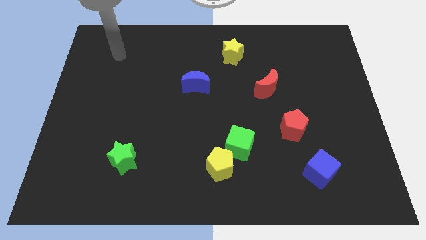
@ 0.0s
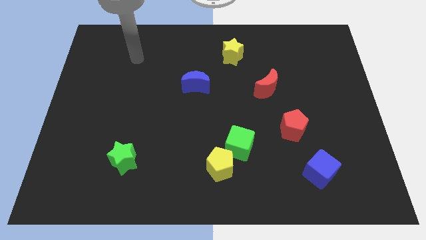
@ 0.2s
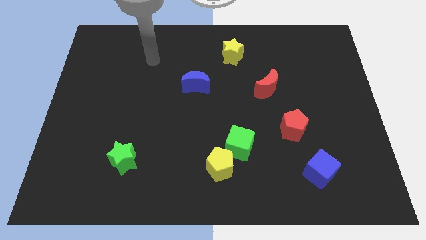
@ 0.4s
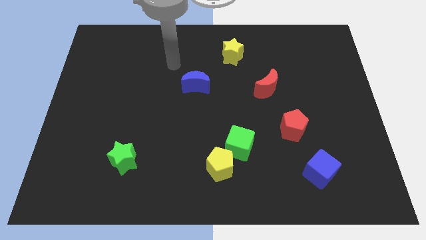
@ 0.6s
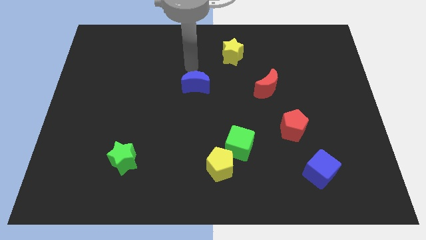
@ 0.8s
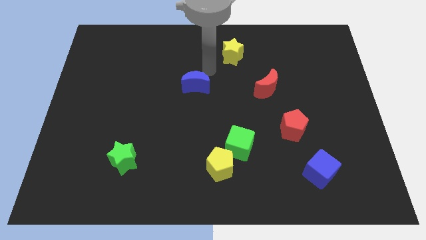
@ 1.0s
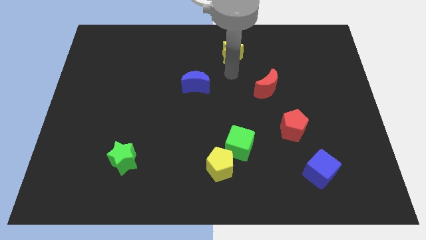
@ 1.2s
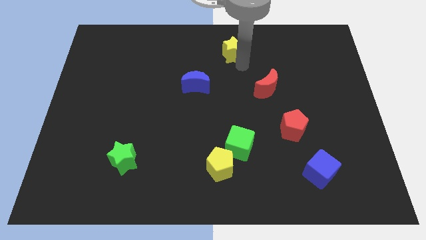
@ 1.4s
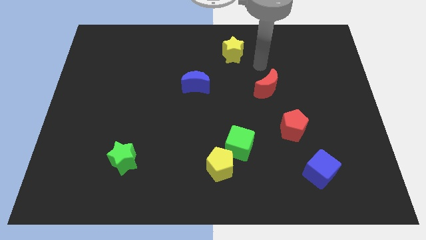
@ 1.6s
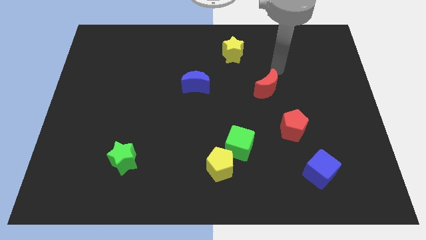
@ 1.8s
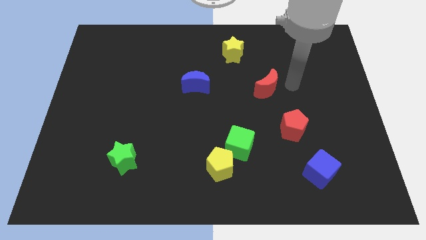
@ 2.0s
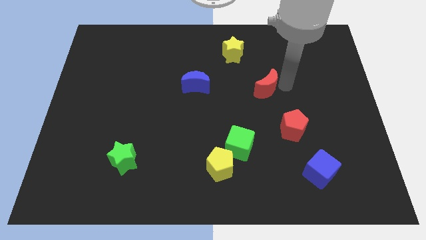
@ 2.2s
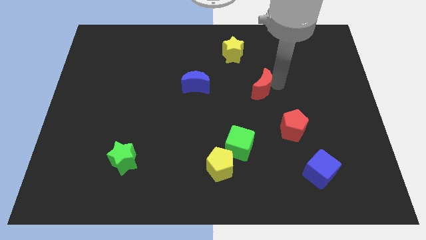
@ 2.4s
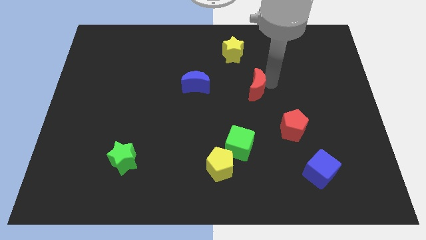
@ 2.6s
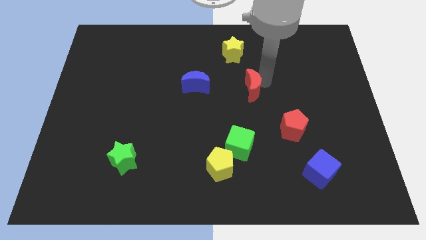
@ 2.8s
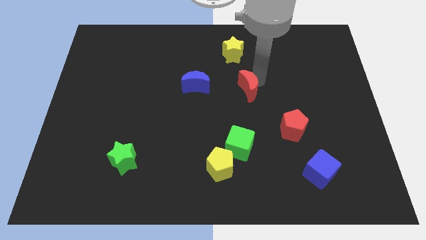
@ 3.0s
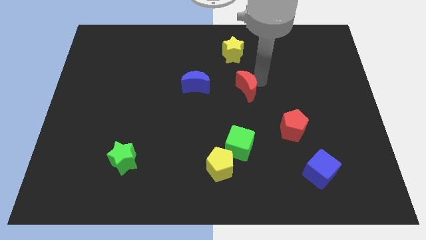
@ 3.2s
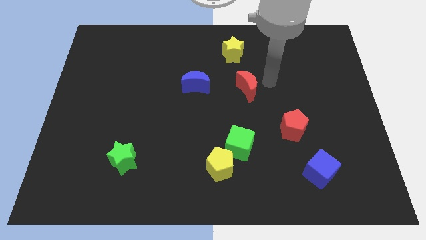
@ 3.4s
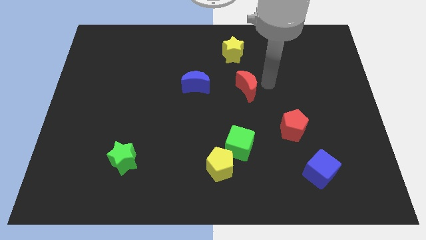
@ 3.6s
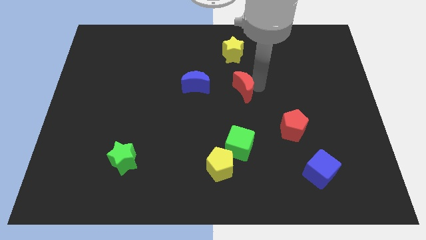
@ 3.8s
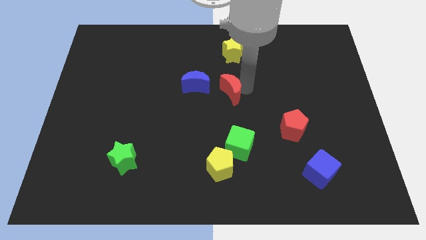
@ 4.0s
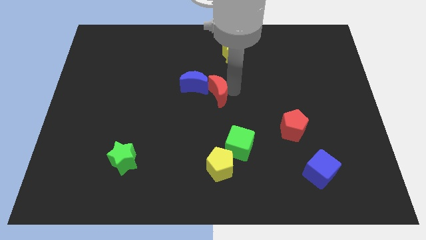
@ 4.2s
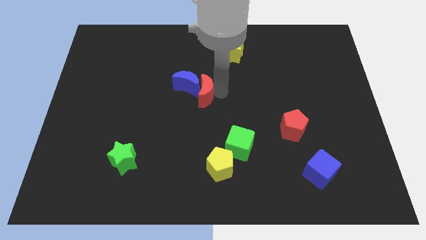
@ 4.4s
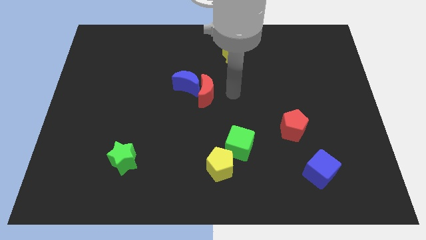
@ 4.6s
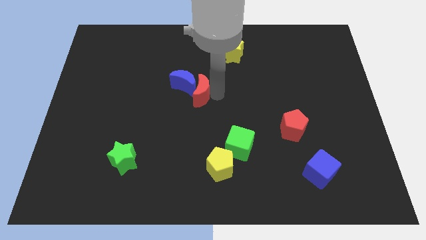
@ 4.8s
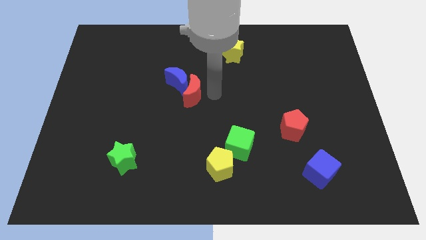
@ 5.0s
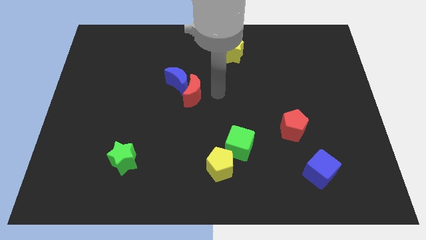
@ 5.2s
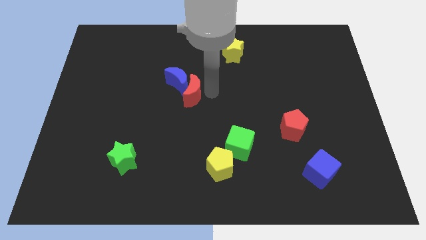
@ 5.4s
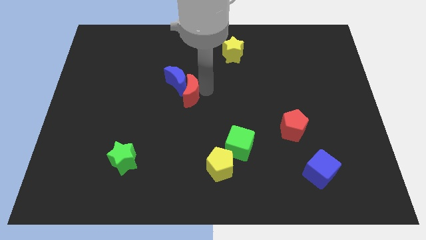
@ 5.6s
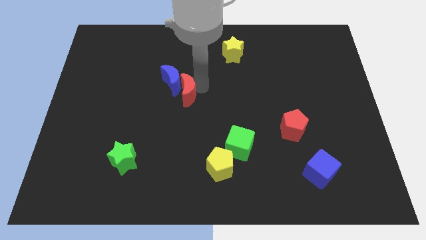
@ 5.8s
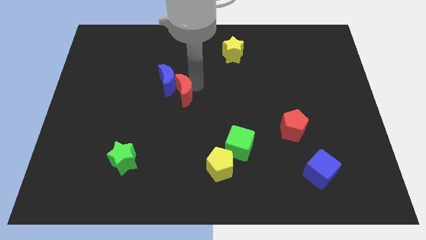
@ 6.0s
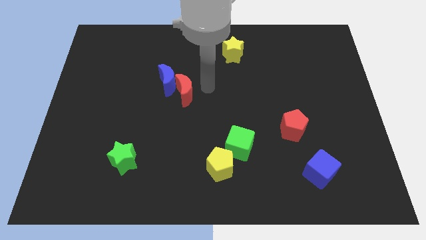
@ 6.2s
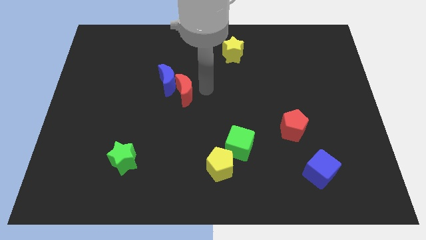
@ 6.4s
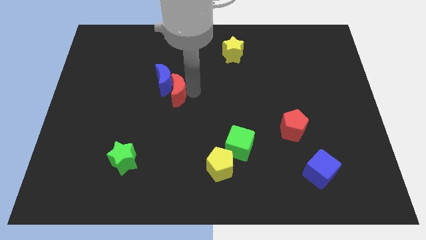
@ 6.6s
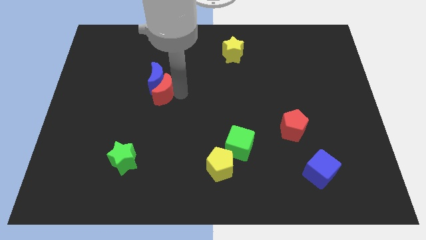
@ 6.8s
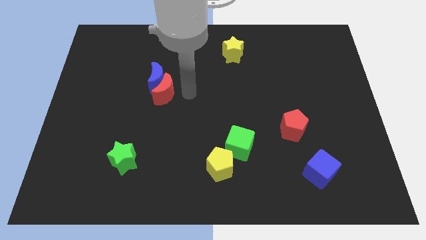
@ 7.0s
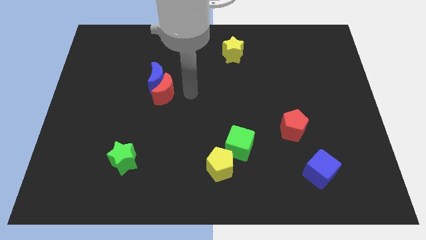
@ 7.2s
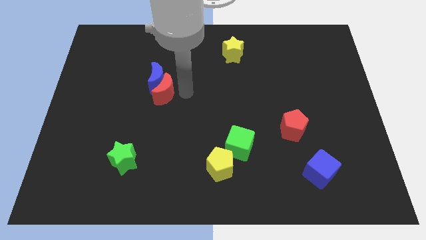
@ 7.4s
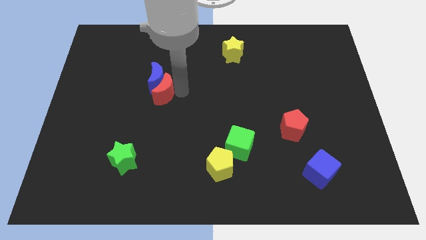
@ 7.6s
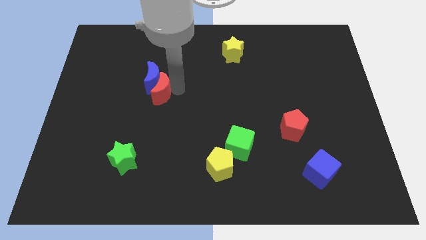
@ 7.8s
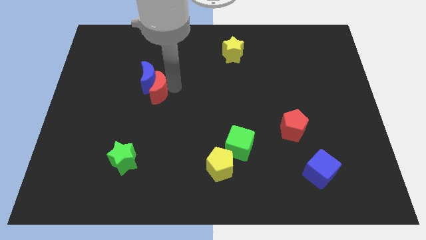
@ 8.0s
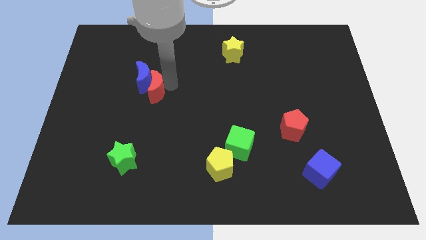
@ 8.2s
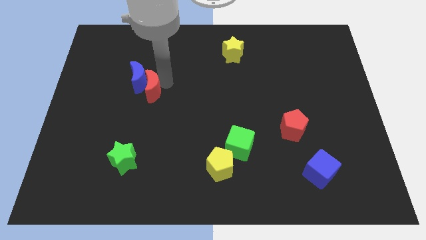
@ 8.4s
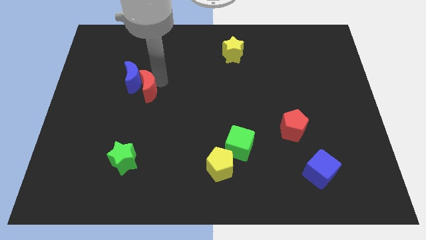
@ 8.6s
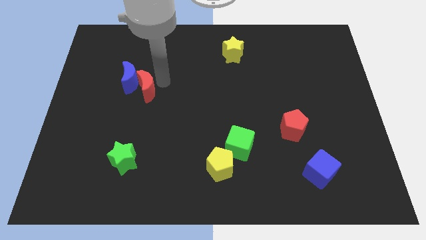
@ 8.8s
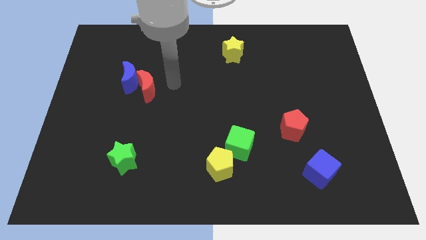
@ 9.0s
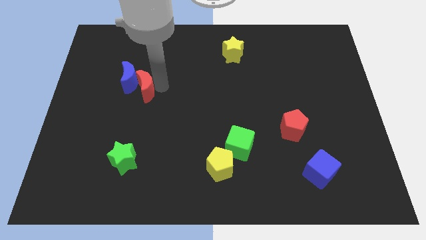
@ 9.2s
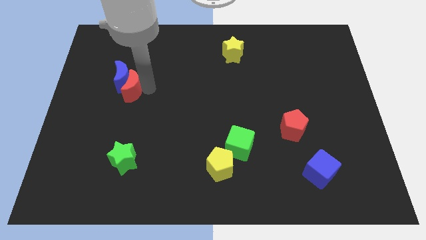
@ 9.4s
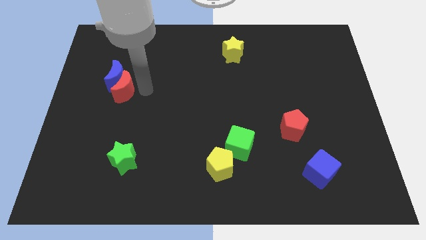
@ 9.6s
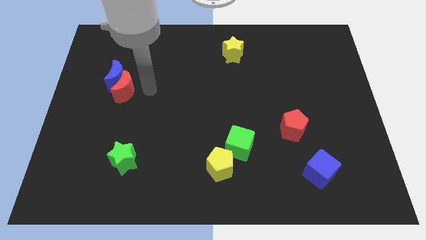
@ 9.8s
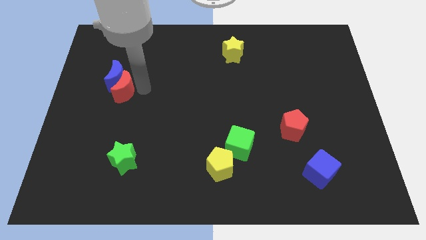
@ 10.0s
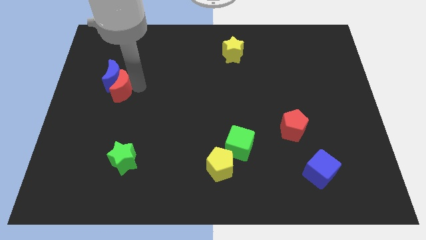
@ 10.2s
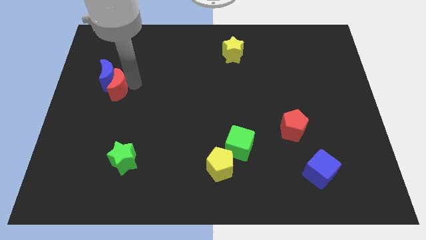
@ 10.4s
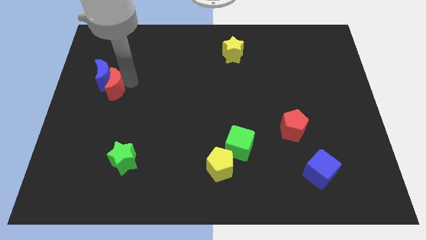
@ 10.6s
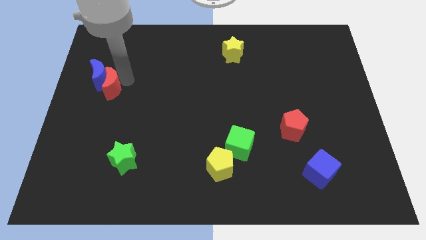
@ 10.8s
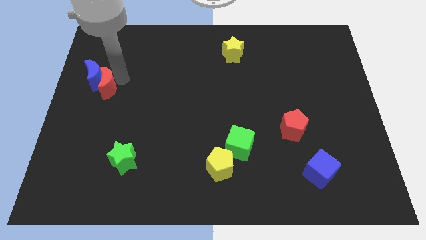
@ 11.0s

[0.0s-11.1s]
push the red moon to the center left

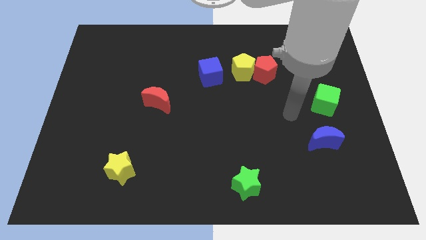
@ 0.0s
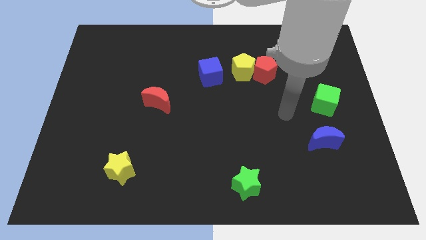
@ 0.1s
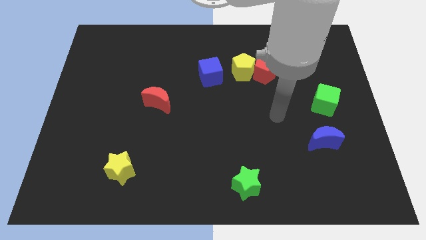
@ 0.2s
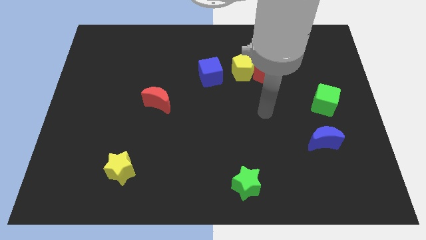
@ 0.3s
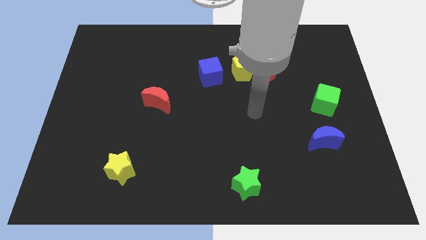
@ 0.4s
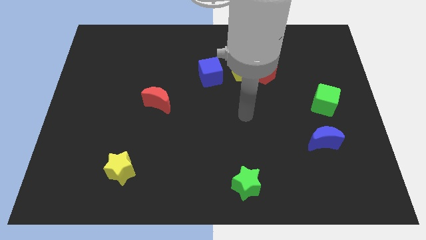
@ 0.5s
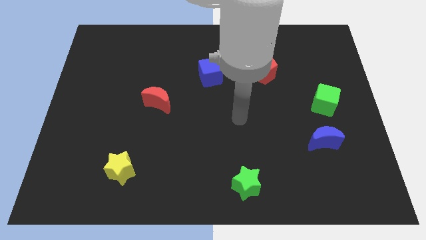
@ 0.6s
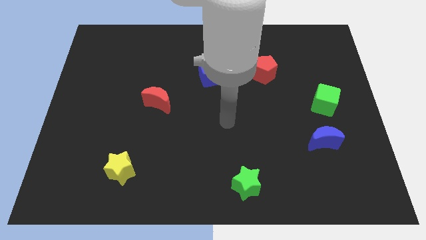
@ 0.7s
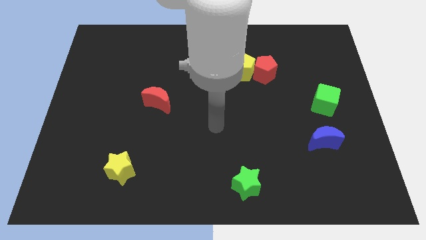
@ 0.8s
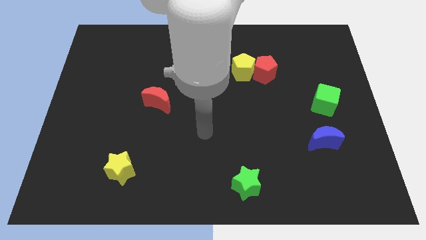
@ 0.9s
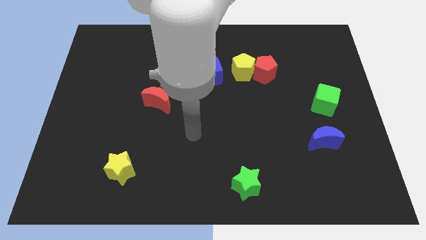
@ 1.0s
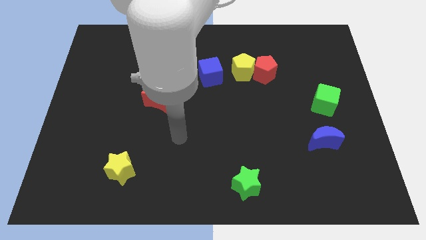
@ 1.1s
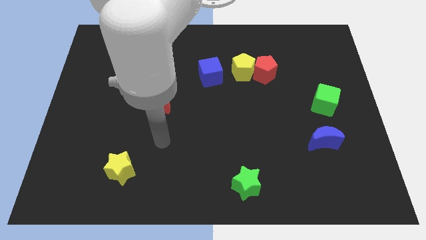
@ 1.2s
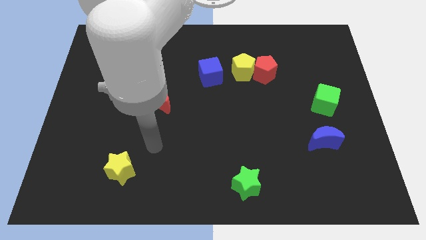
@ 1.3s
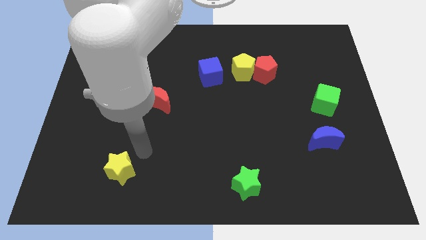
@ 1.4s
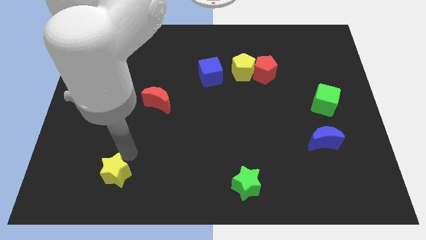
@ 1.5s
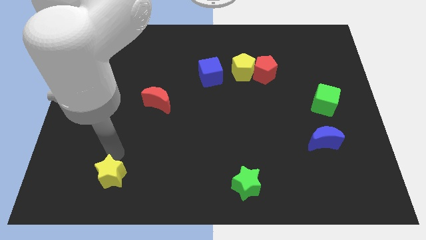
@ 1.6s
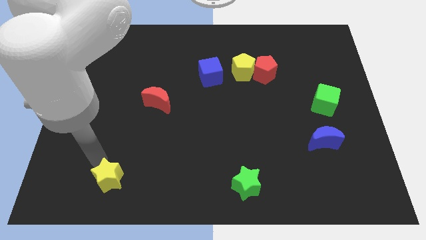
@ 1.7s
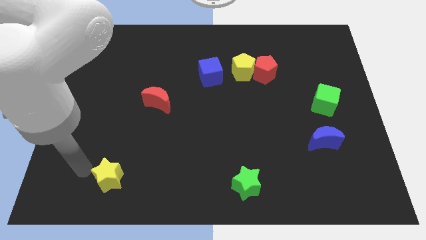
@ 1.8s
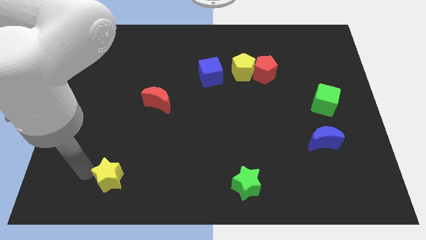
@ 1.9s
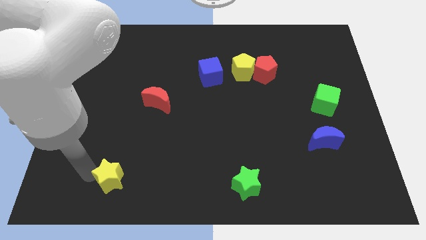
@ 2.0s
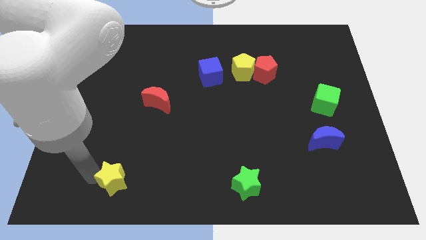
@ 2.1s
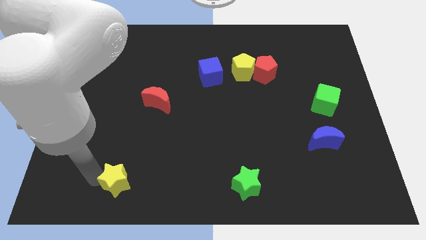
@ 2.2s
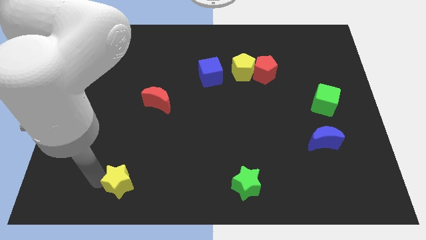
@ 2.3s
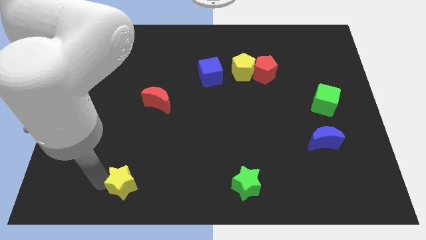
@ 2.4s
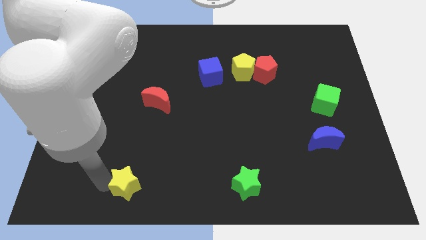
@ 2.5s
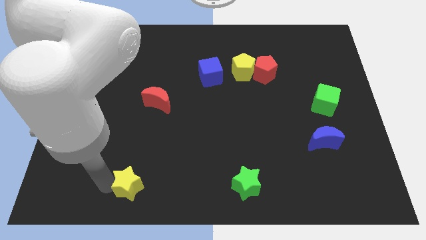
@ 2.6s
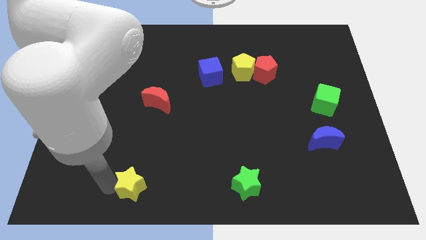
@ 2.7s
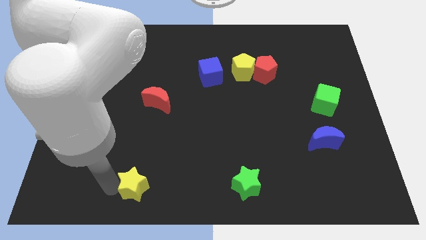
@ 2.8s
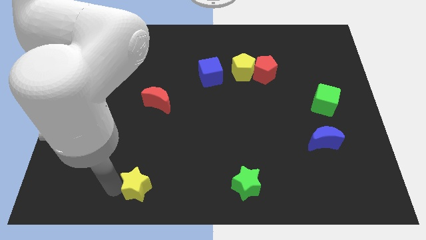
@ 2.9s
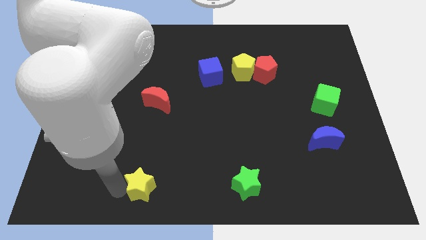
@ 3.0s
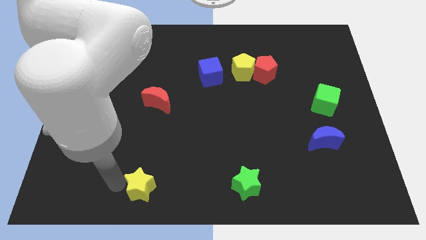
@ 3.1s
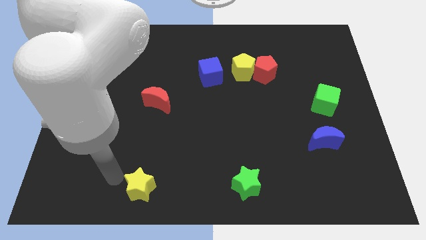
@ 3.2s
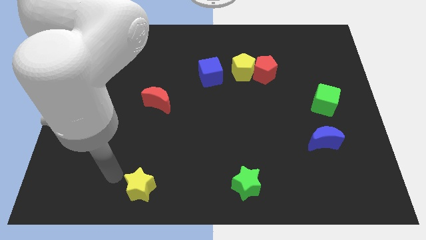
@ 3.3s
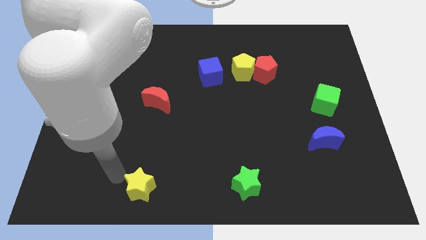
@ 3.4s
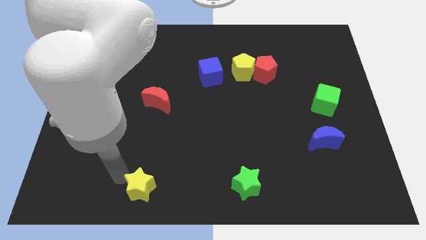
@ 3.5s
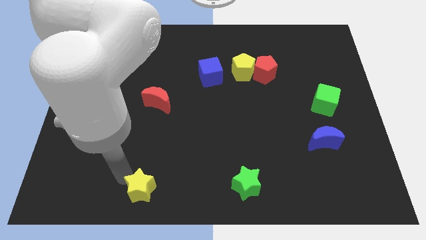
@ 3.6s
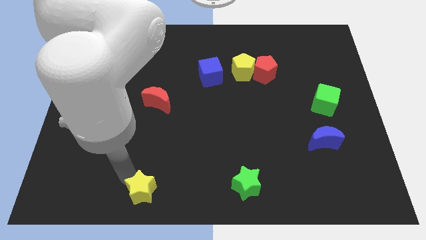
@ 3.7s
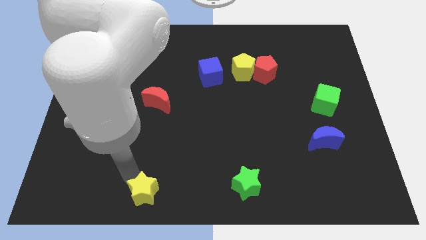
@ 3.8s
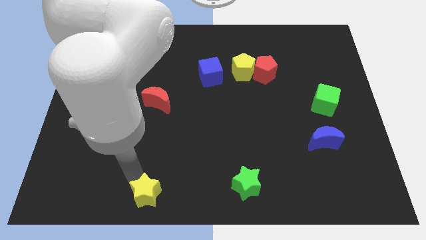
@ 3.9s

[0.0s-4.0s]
push the yellow star to the bottom side
